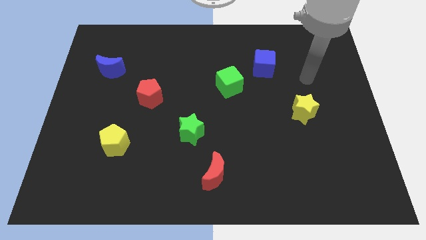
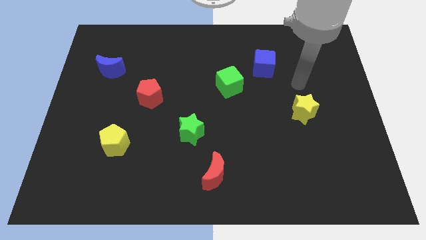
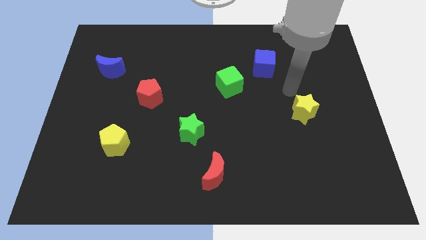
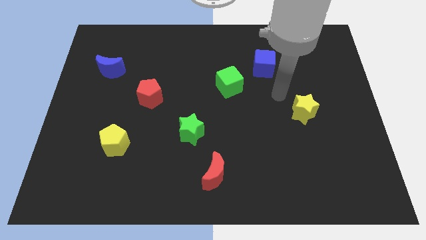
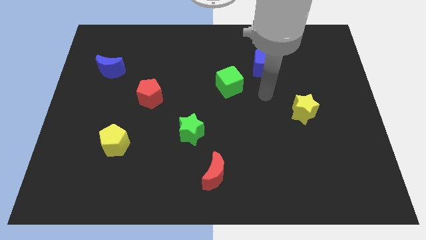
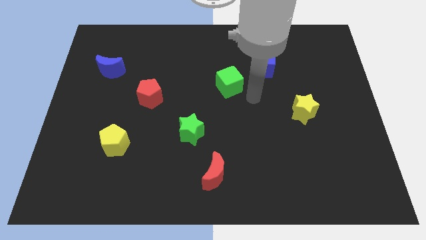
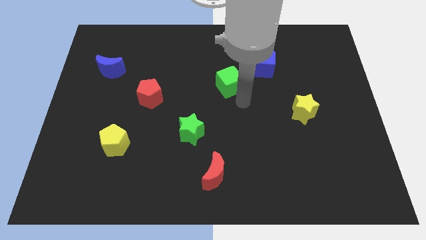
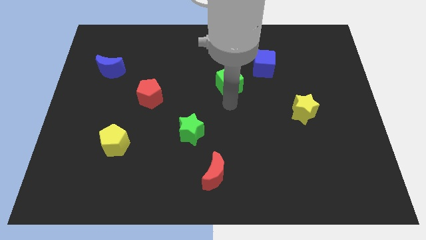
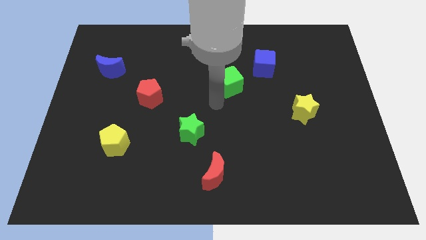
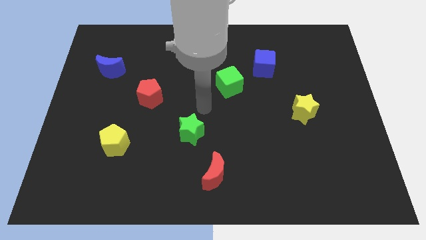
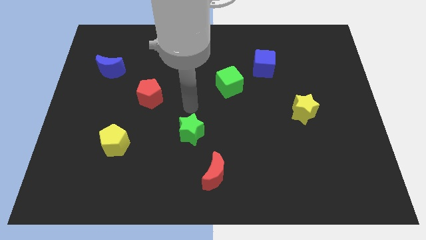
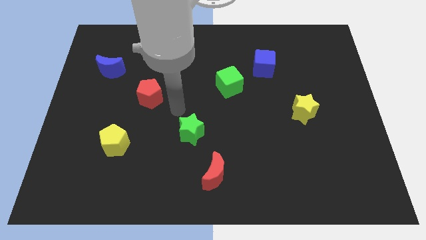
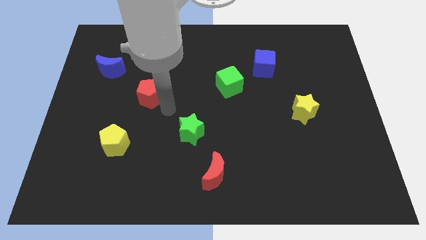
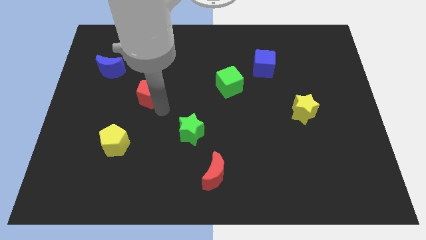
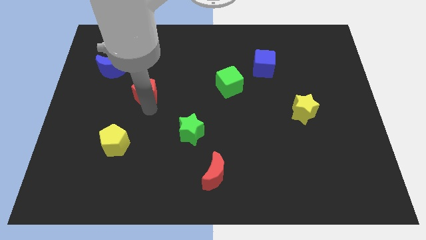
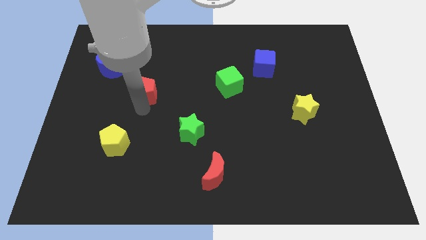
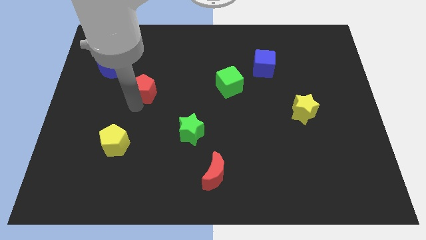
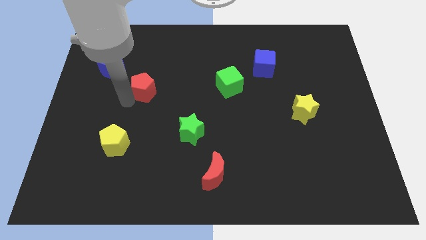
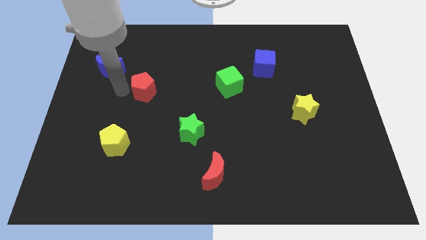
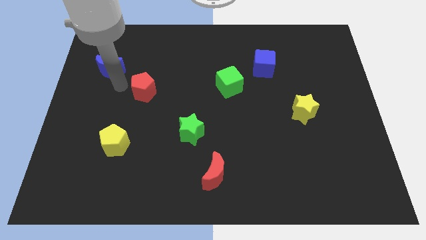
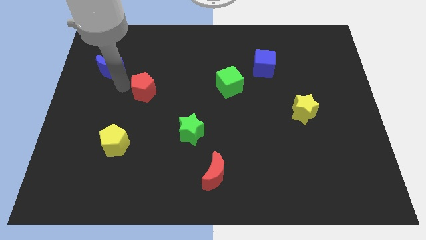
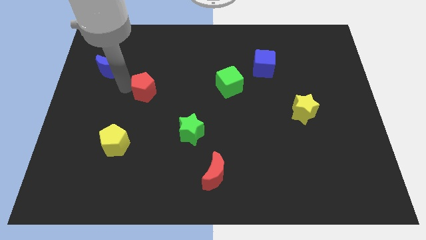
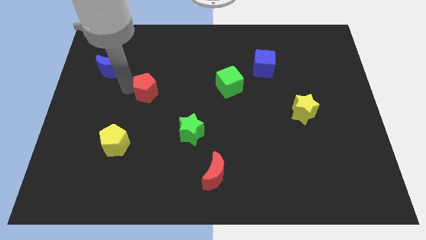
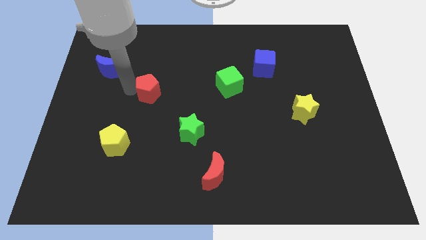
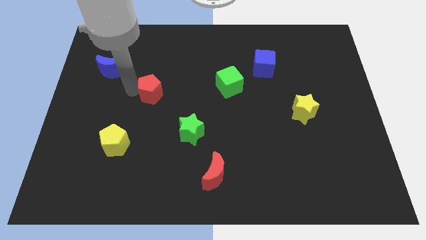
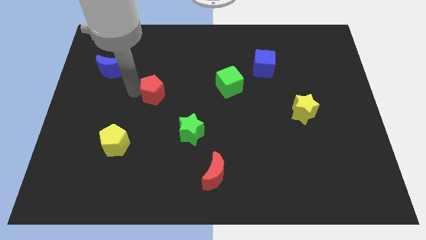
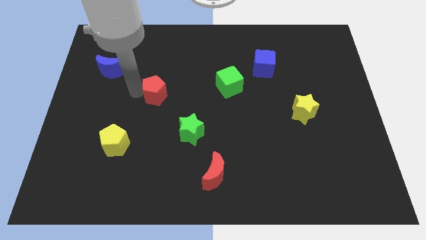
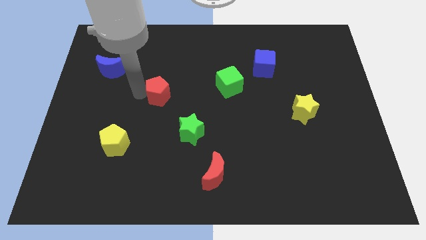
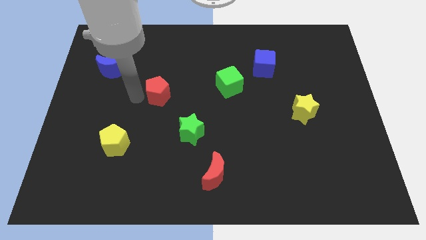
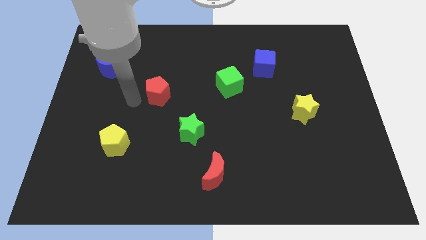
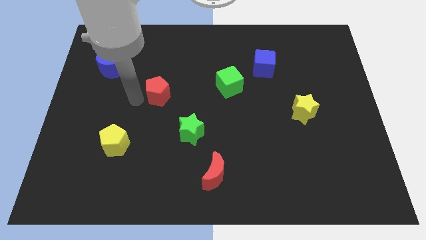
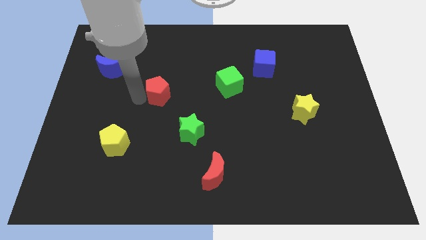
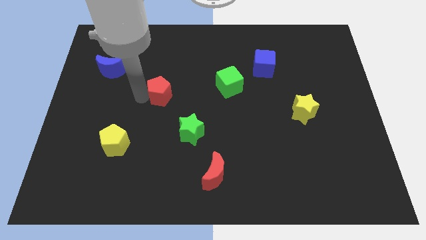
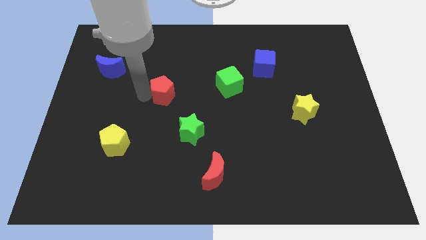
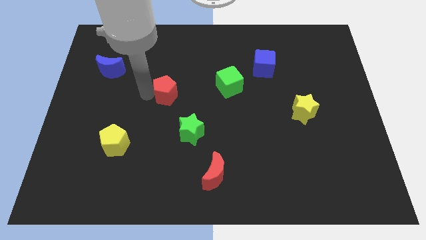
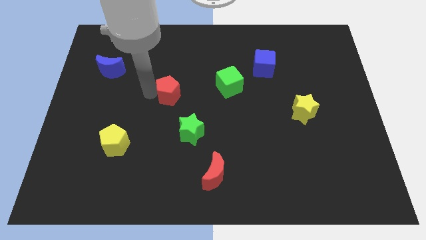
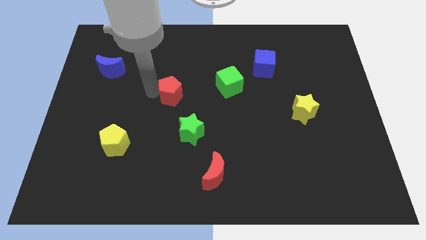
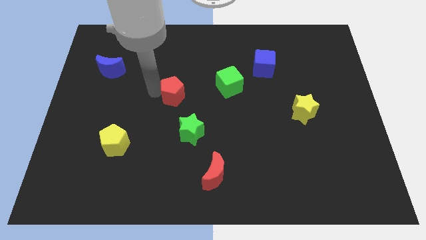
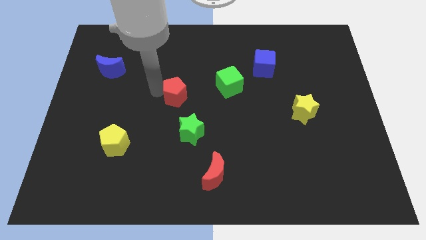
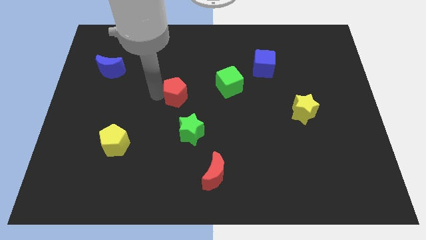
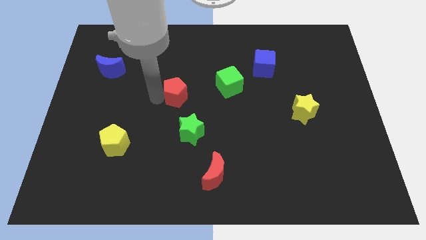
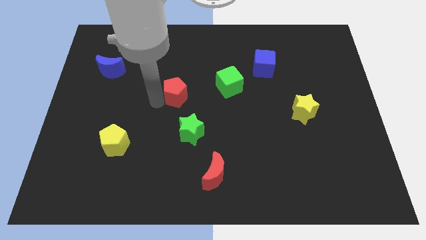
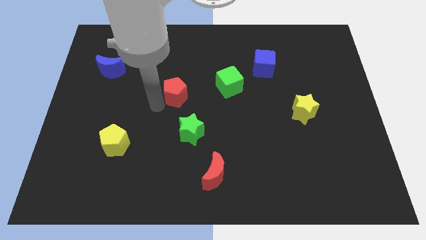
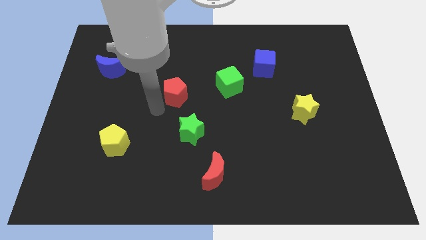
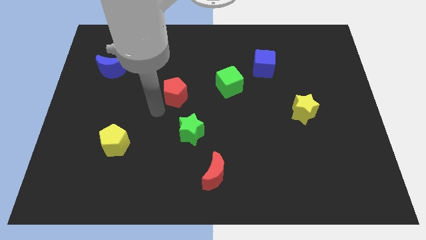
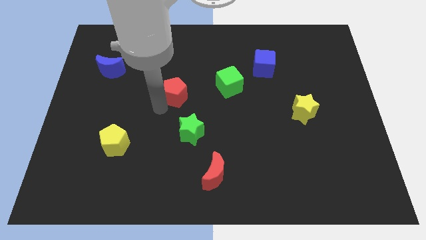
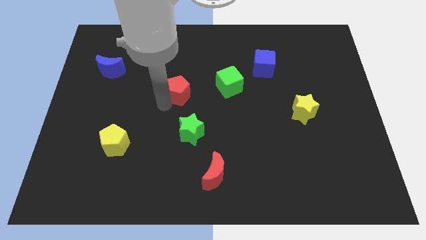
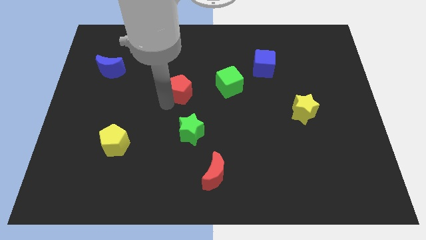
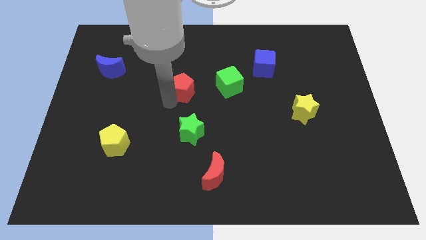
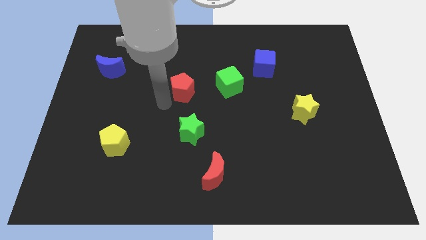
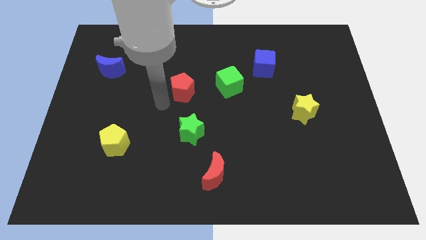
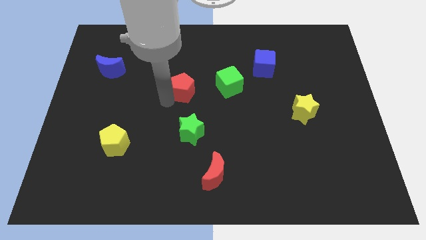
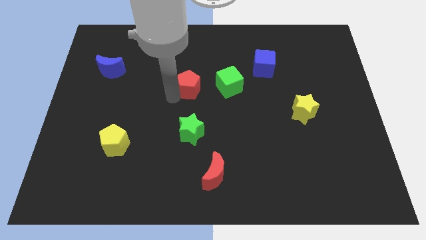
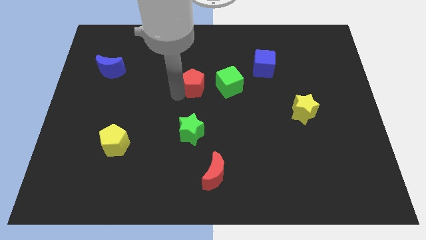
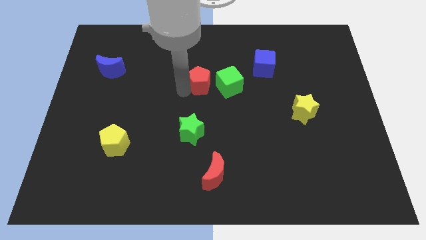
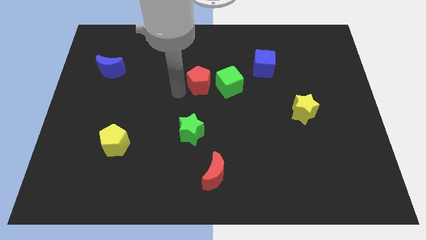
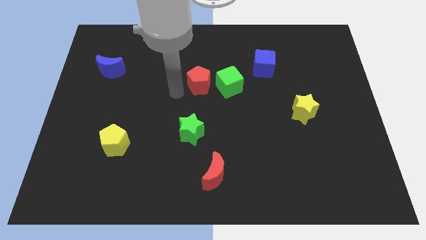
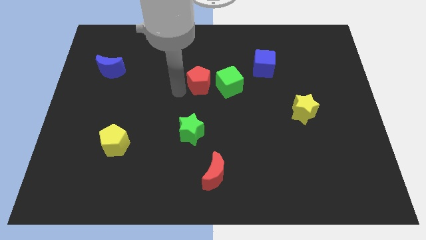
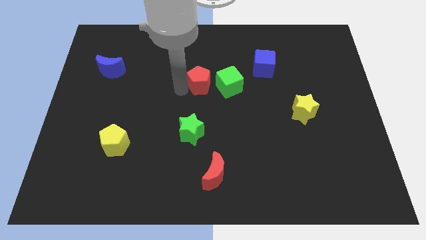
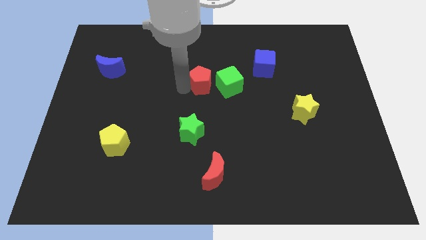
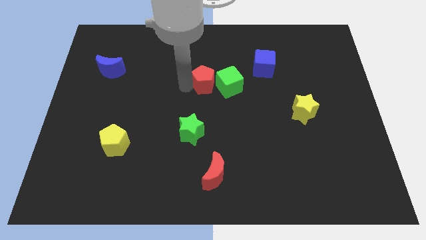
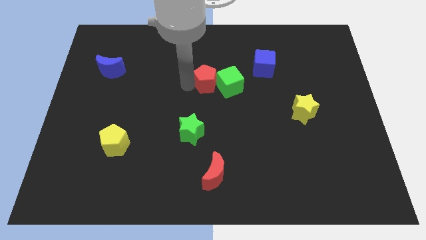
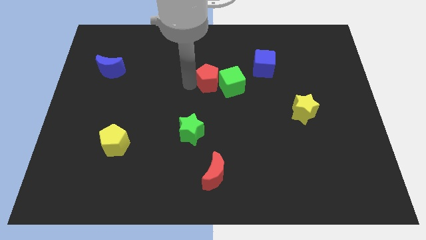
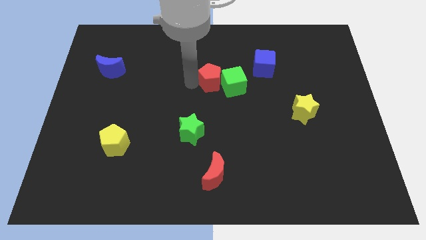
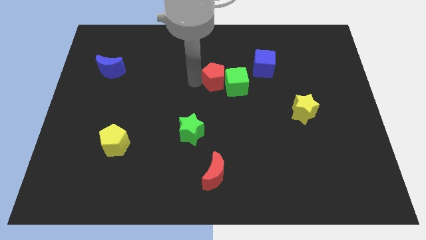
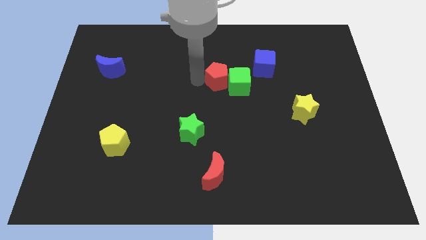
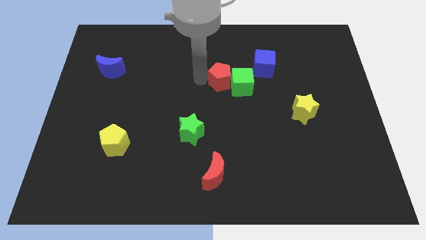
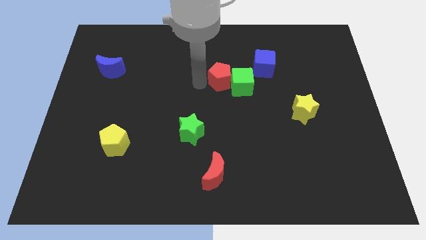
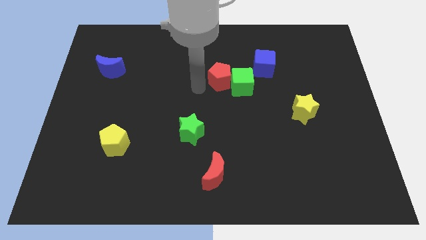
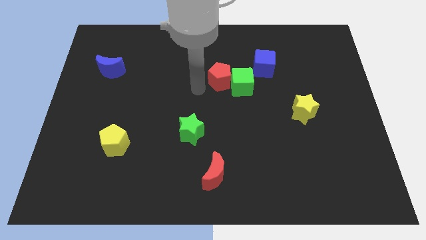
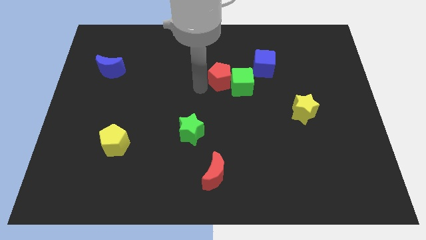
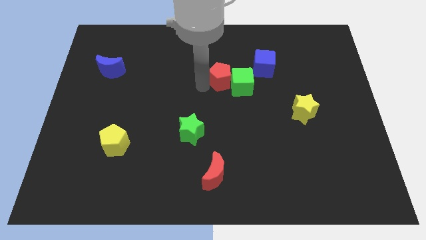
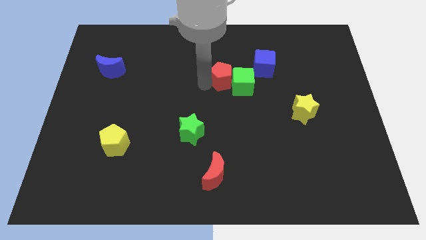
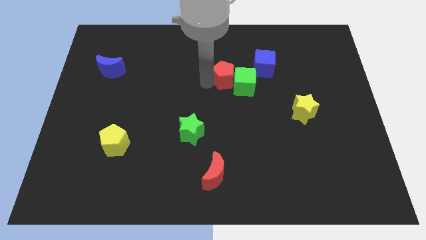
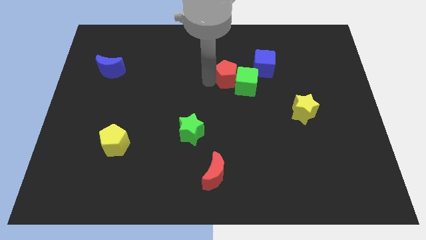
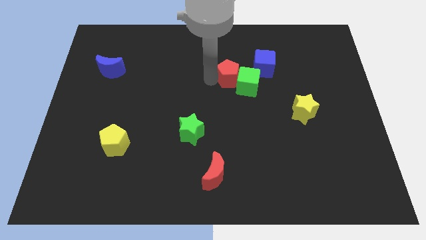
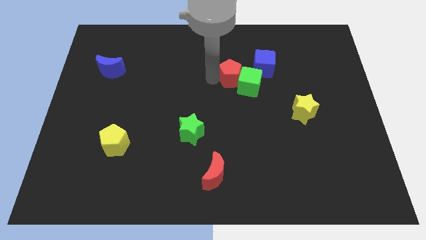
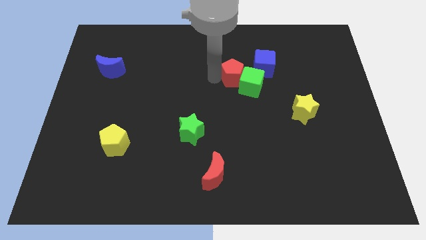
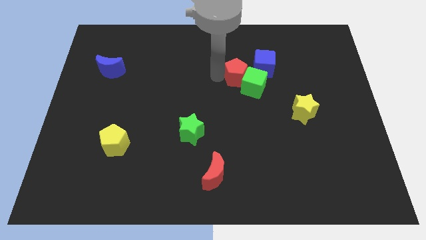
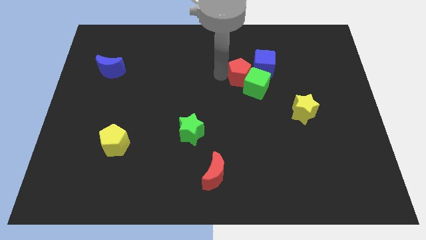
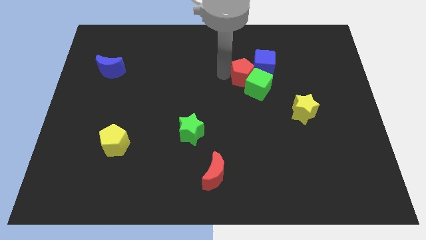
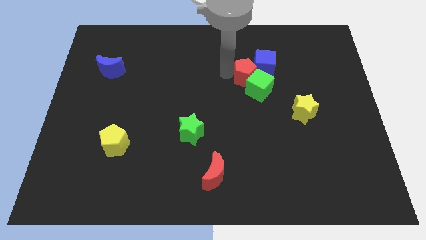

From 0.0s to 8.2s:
put the red pentagon towards the blue cube
